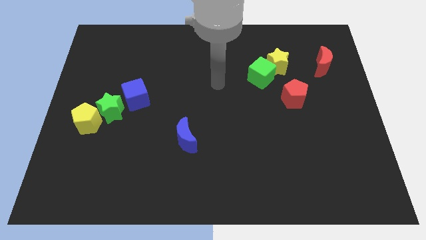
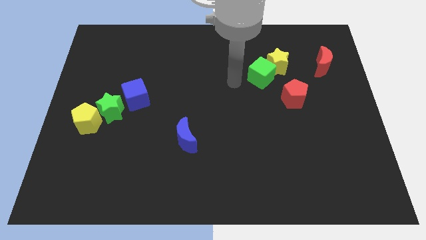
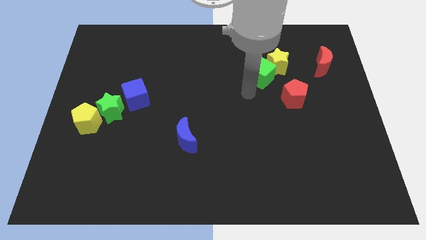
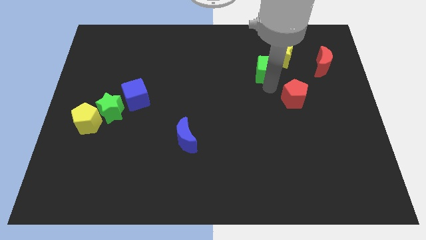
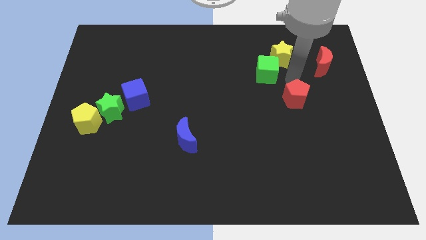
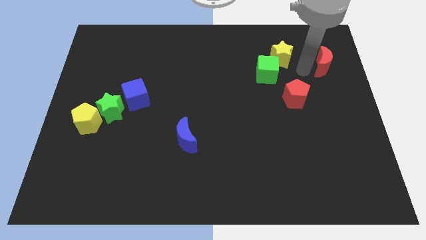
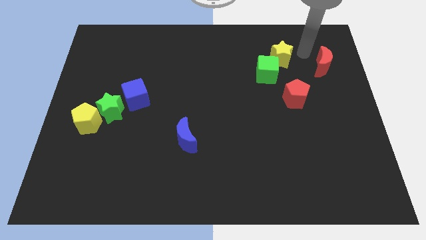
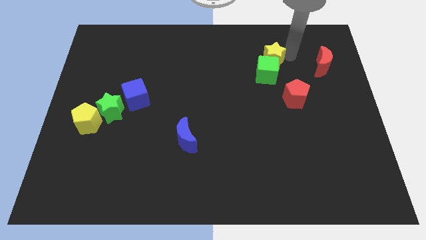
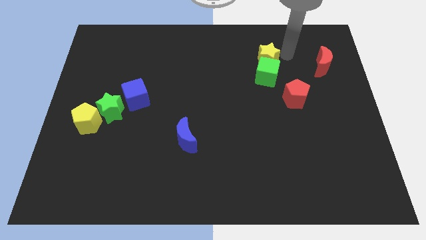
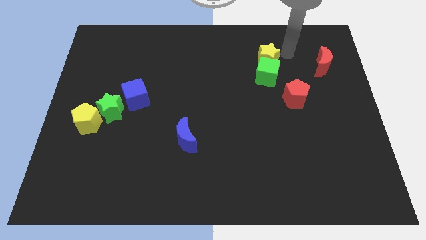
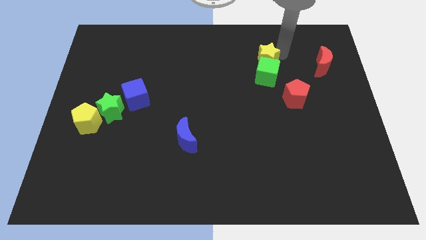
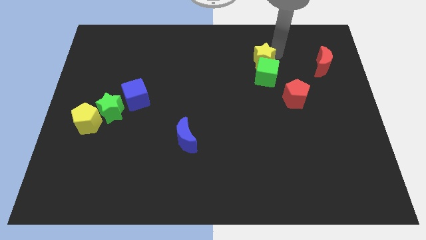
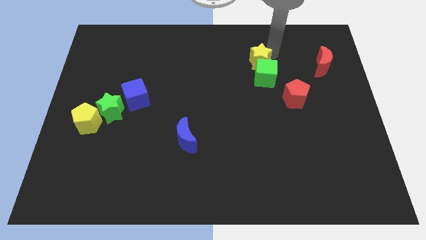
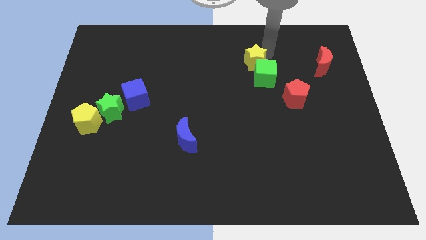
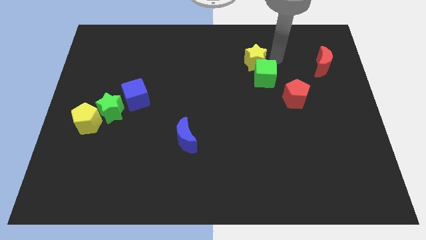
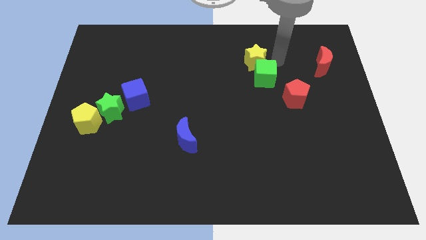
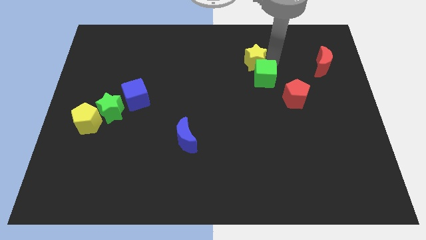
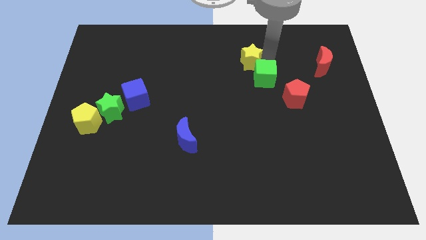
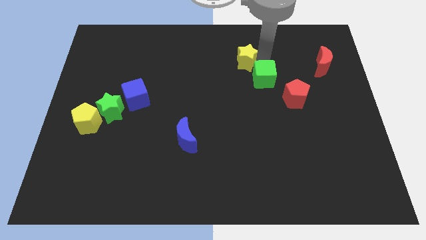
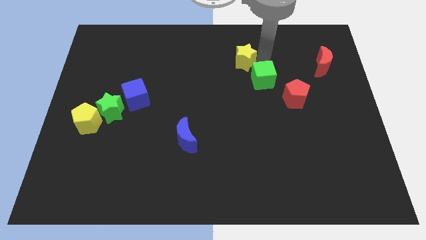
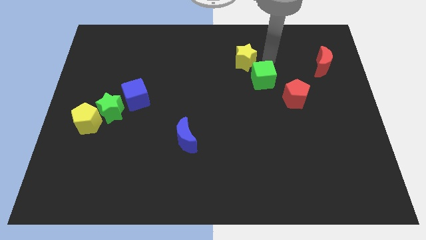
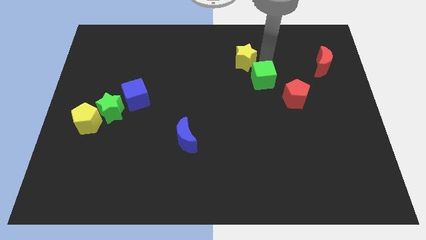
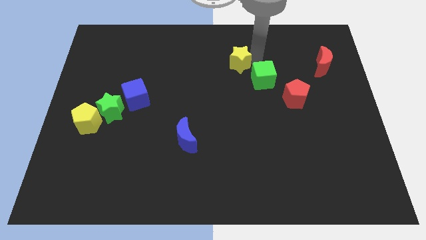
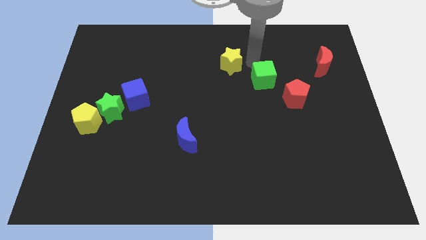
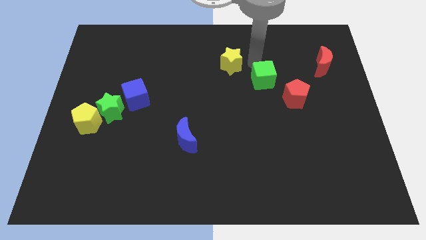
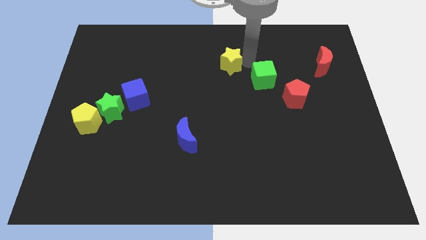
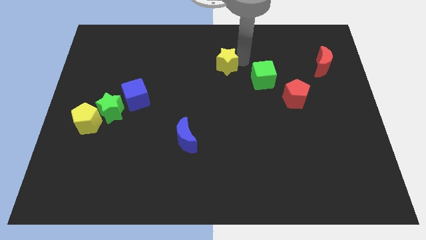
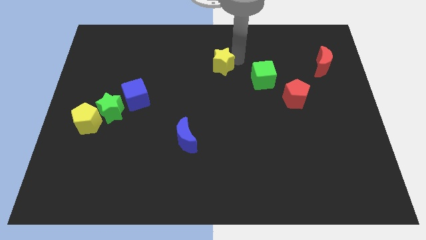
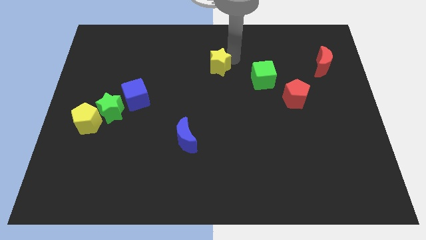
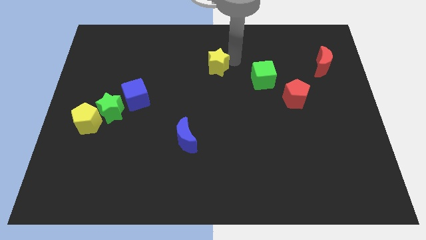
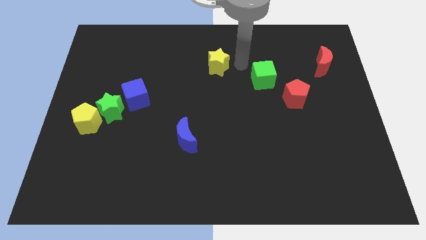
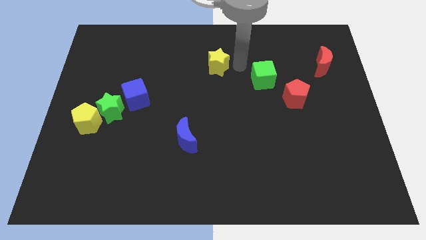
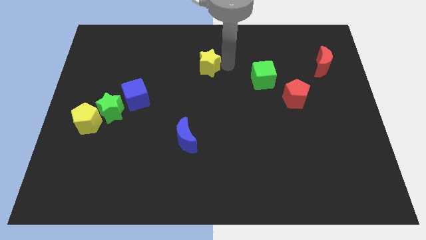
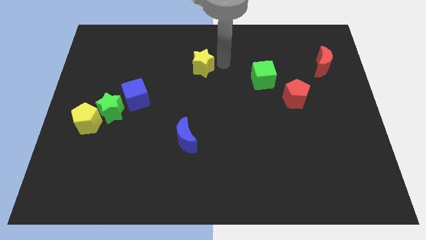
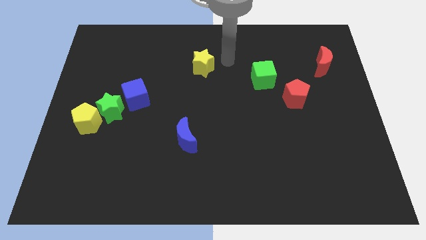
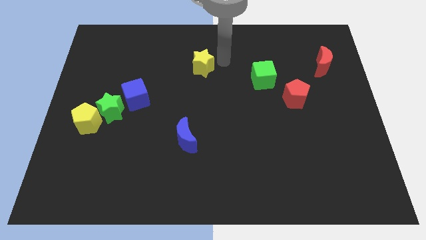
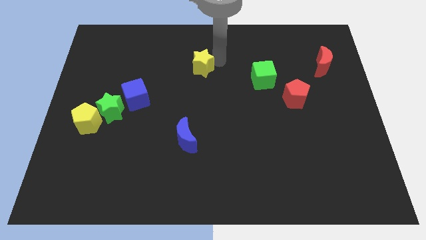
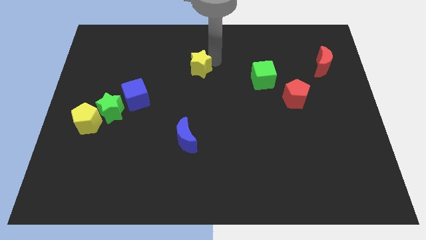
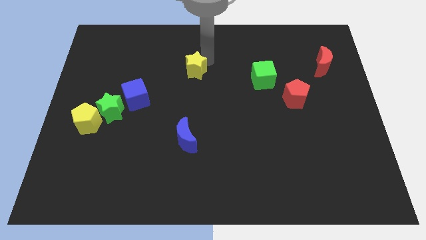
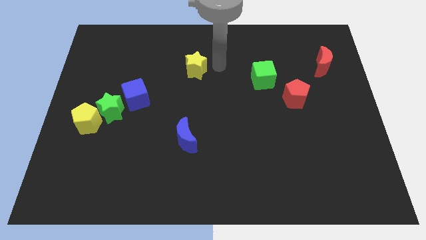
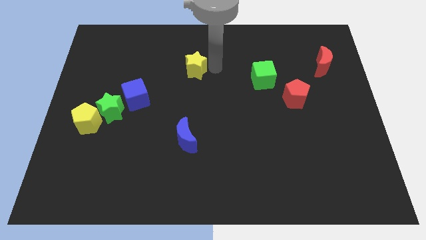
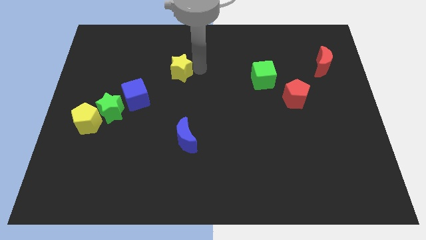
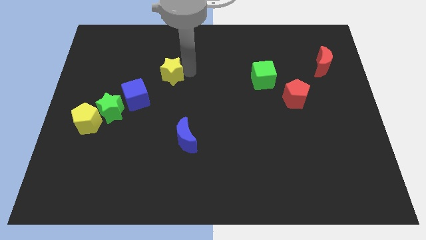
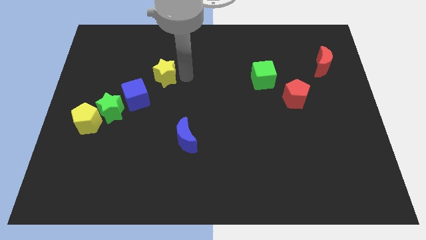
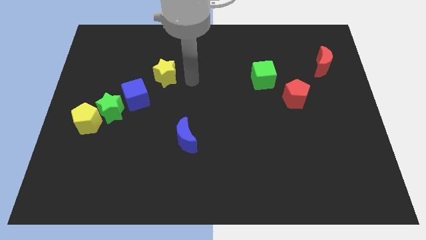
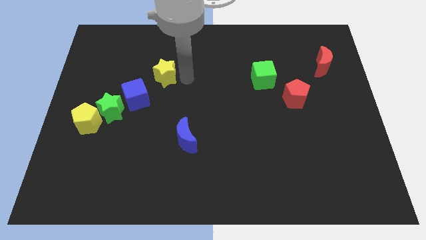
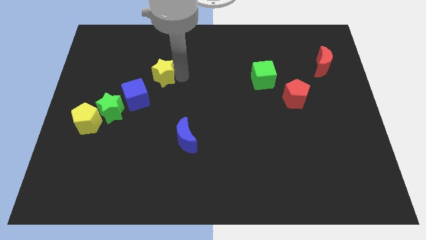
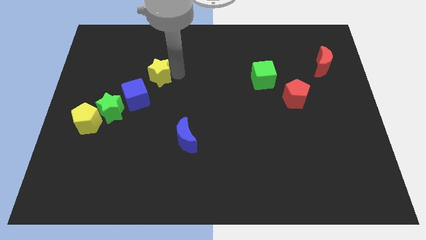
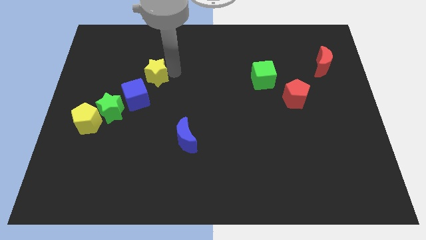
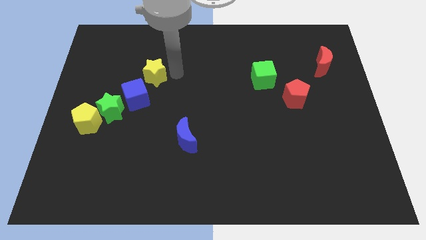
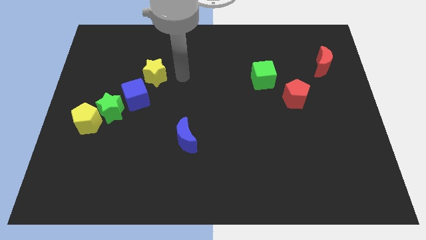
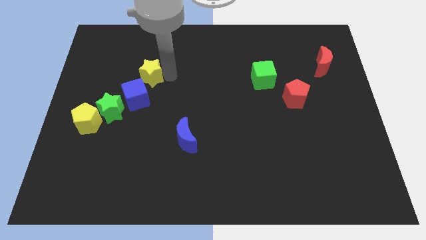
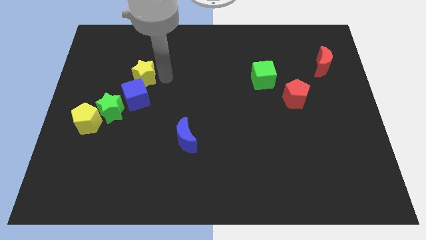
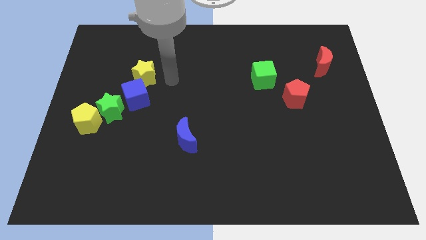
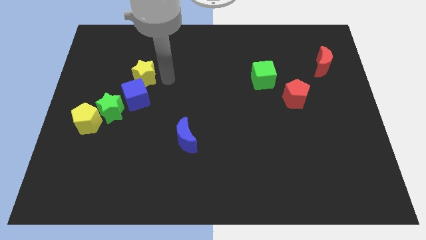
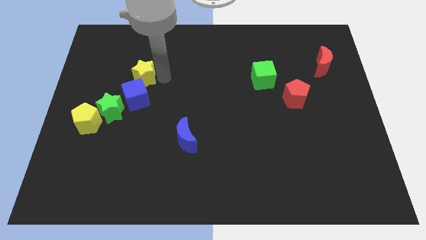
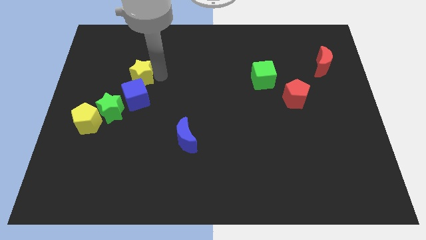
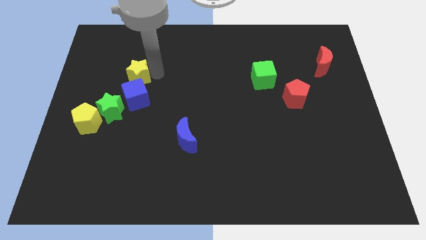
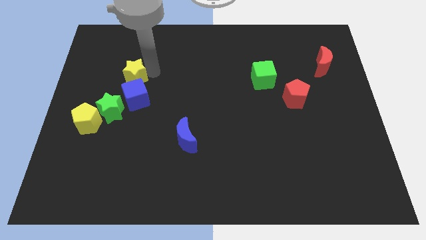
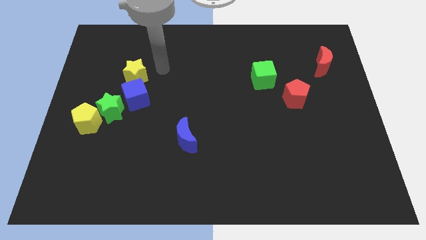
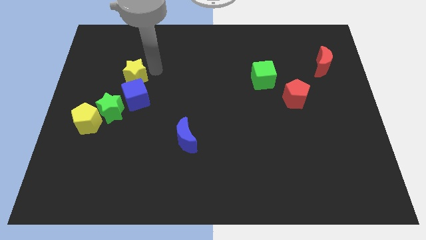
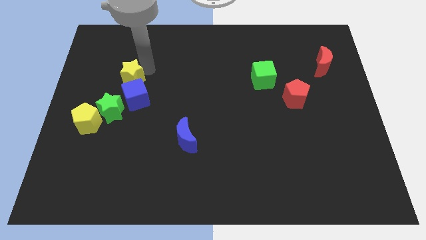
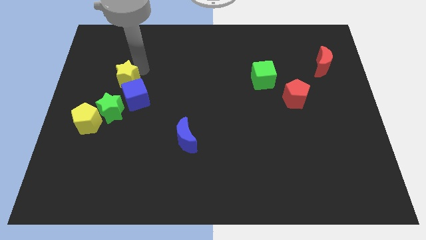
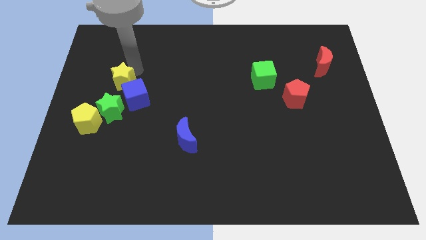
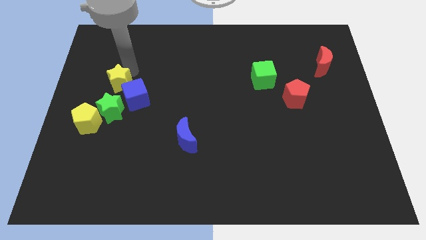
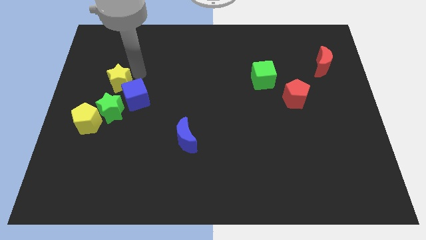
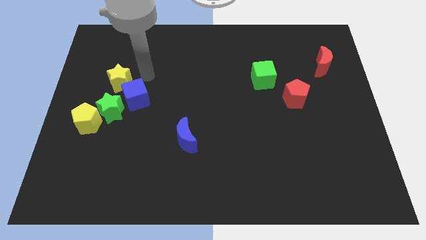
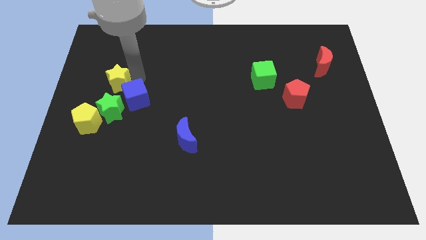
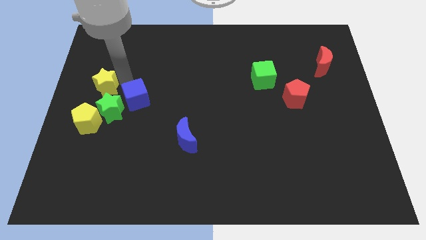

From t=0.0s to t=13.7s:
push the yellow star to the center left

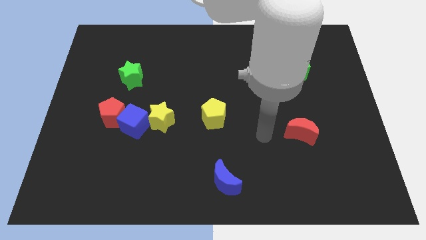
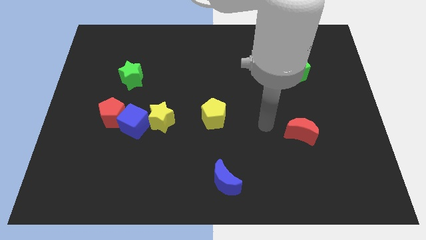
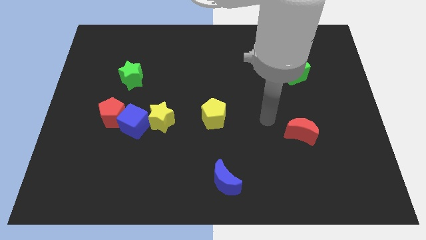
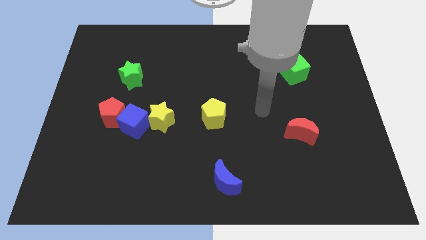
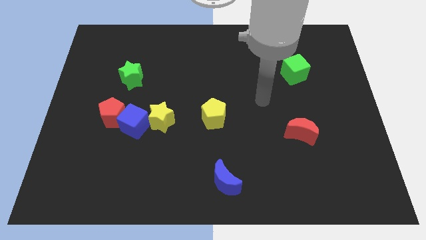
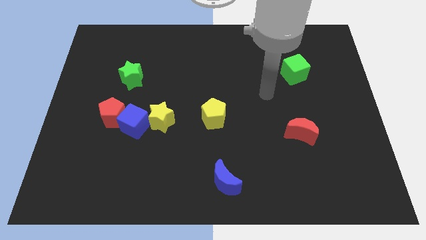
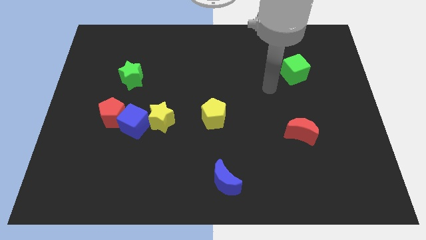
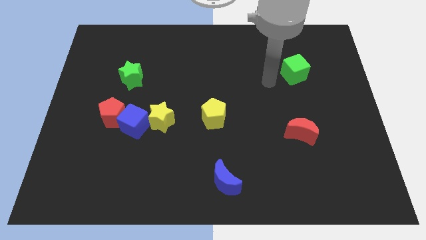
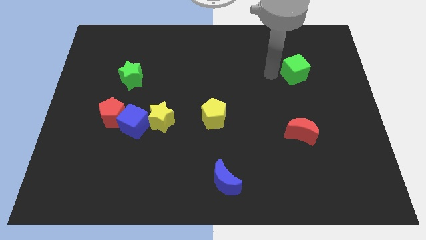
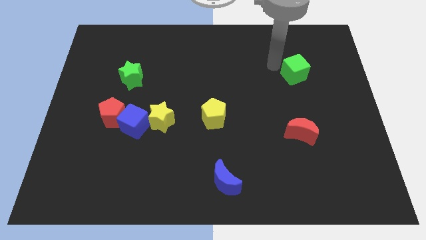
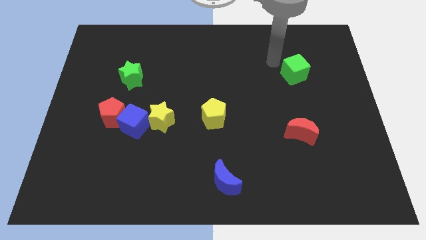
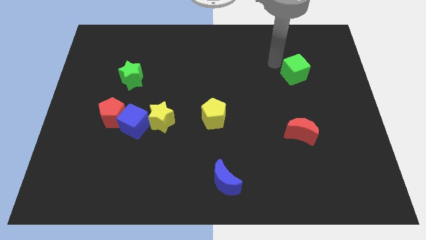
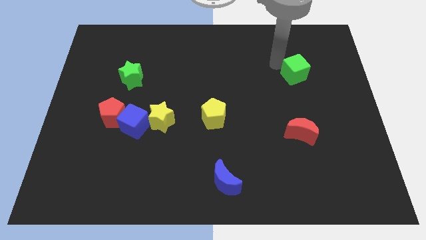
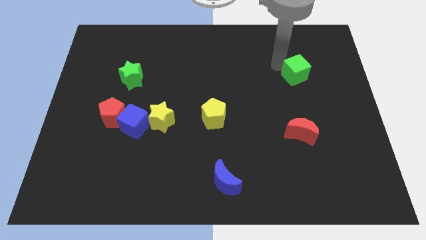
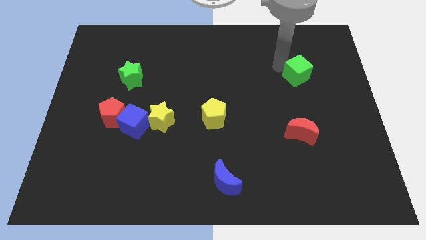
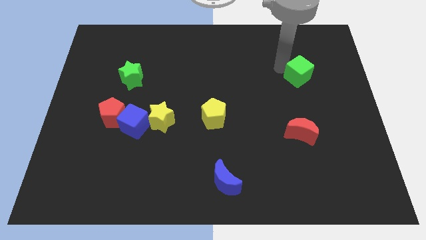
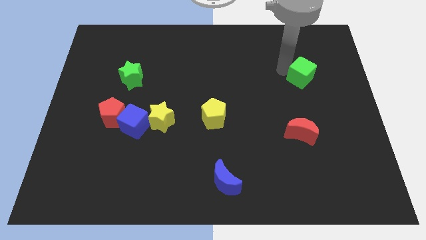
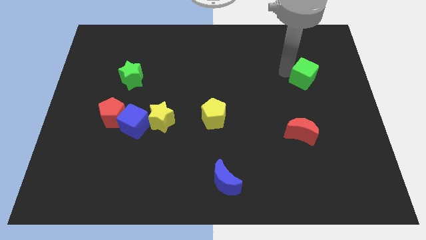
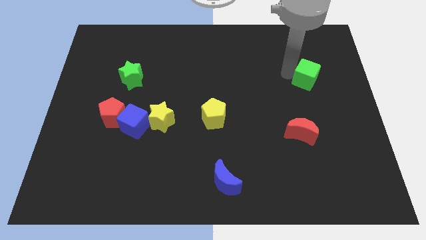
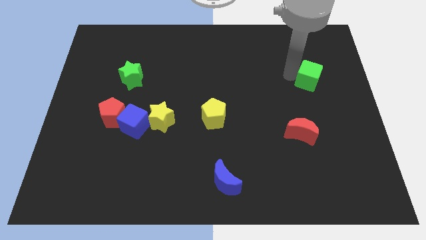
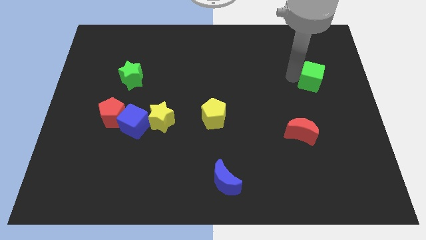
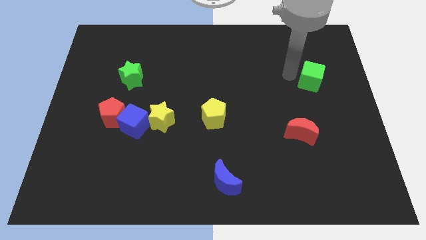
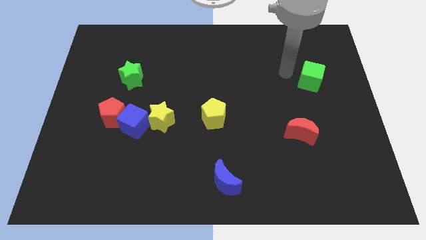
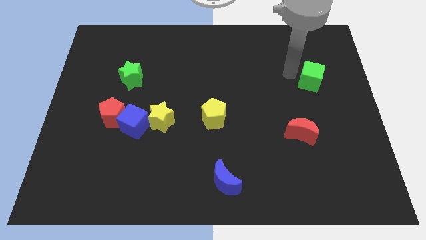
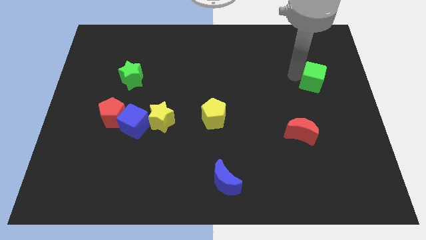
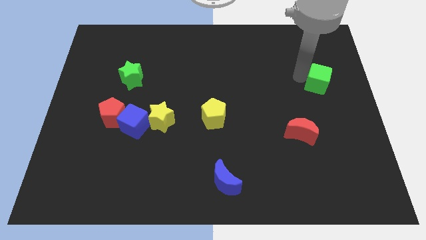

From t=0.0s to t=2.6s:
push the green cube to the center right
